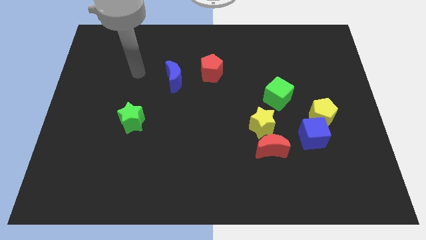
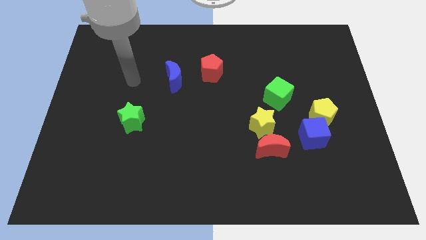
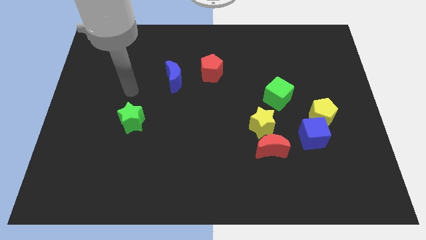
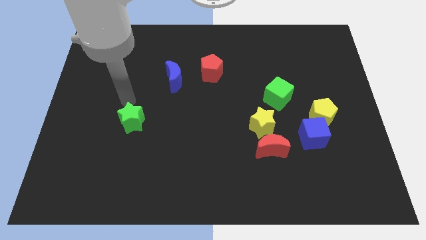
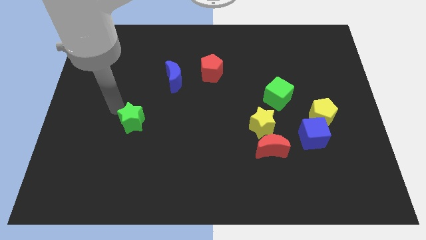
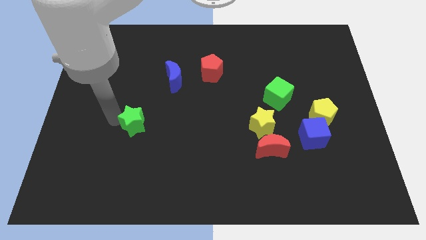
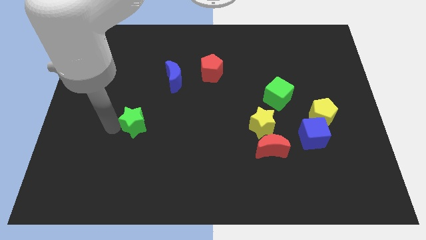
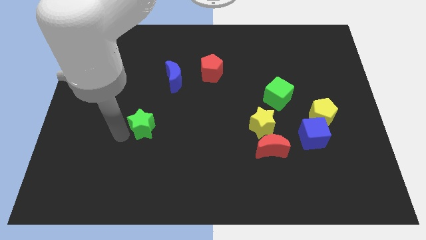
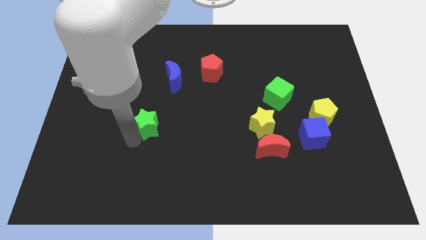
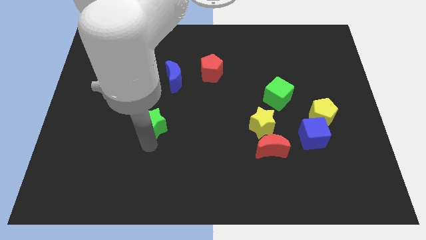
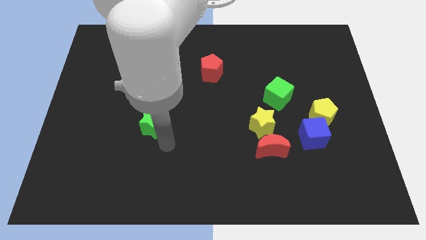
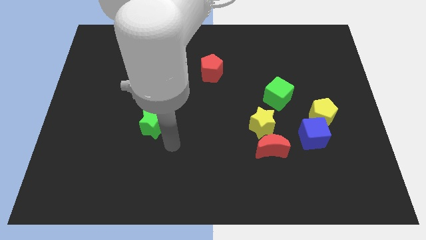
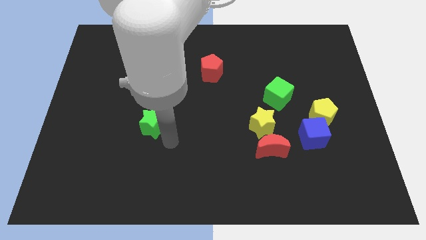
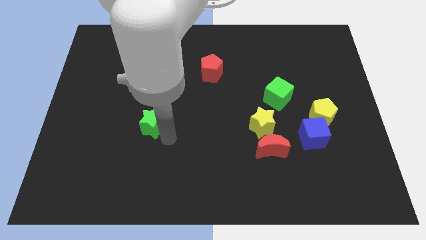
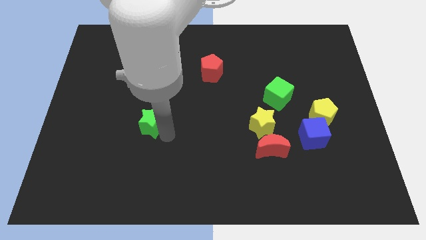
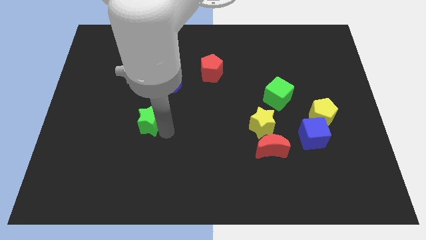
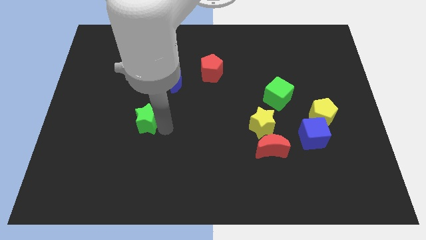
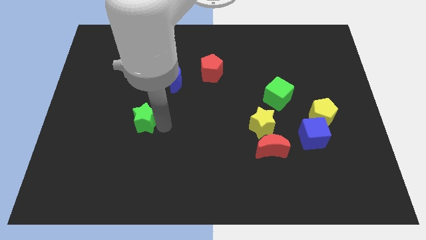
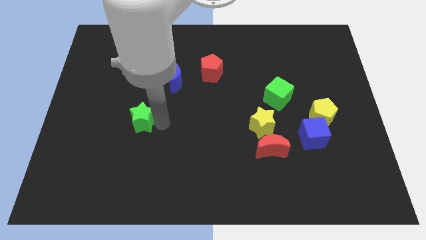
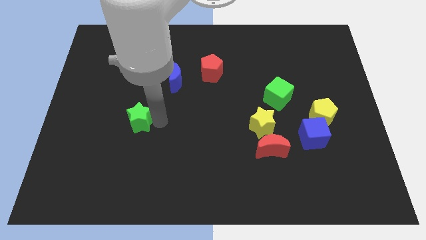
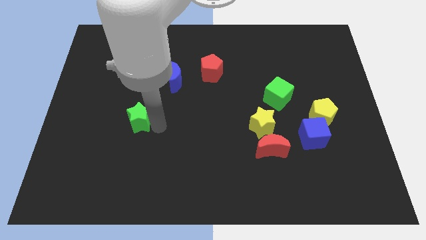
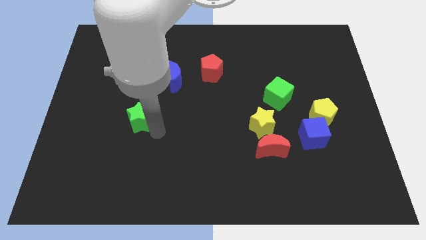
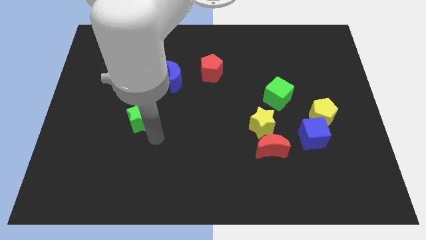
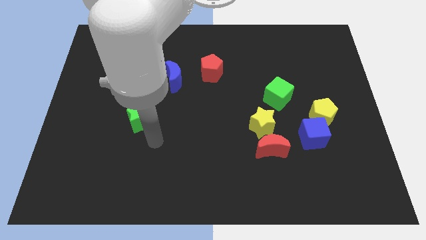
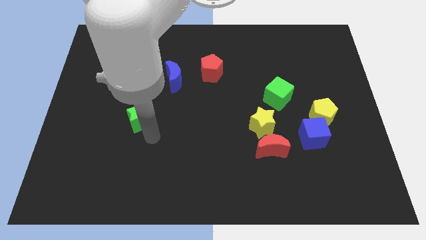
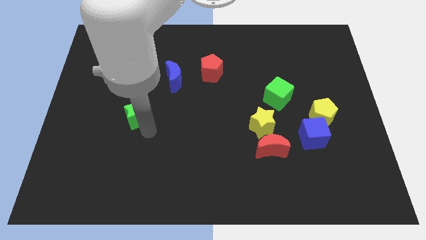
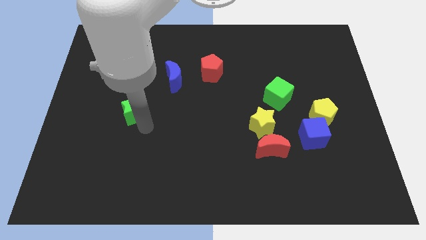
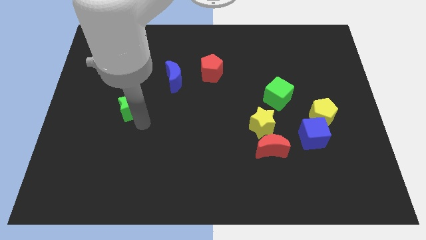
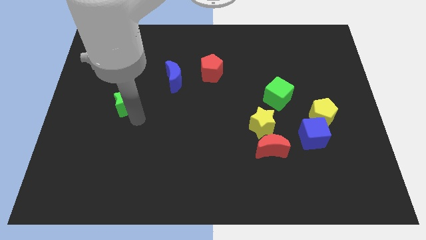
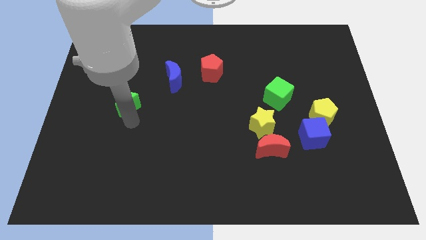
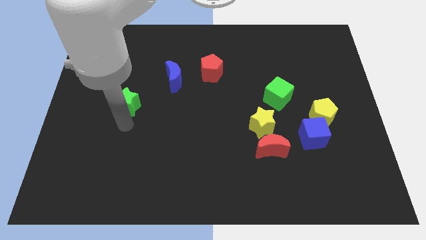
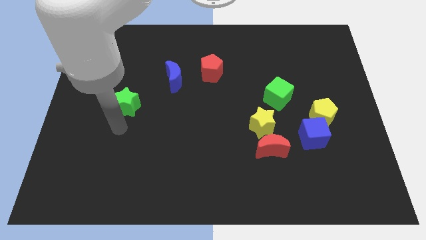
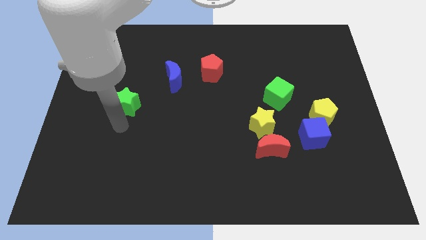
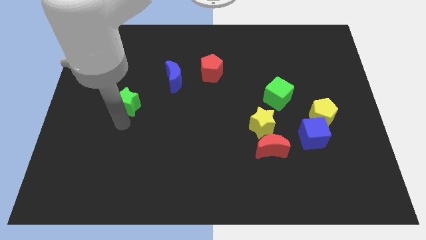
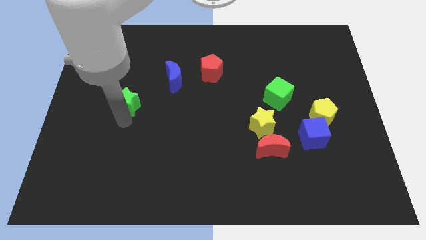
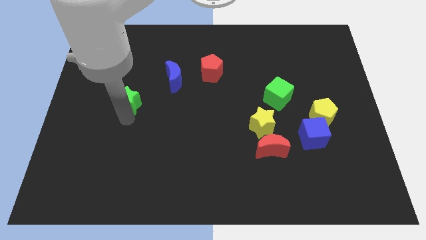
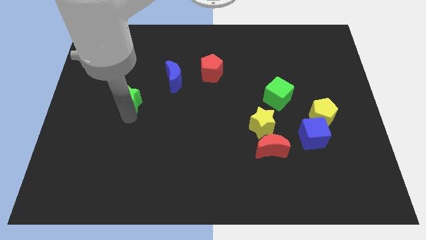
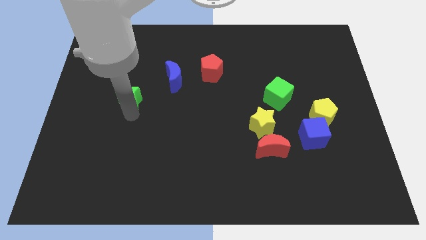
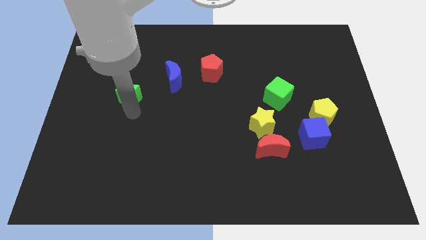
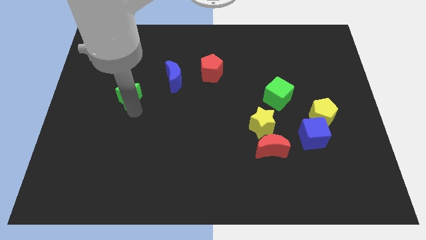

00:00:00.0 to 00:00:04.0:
move the green star a little bit up

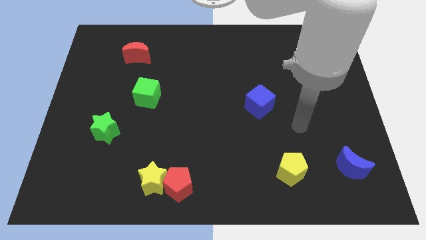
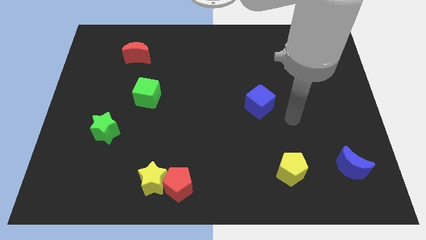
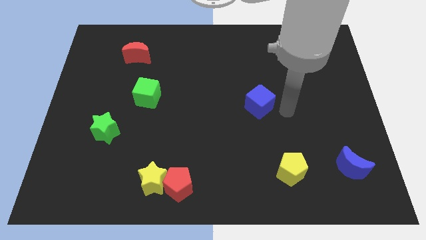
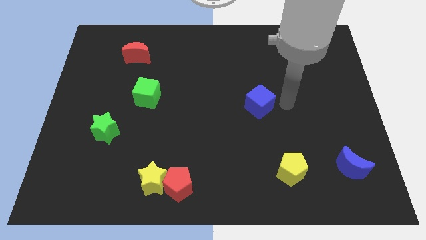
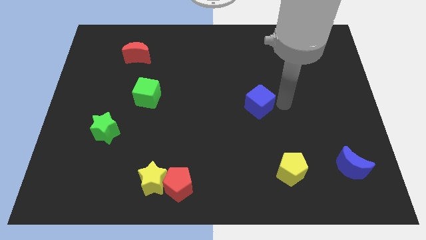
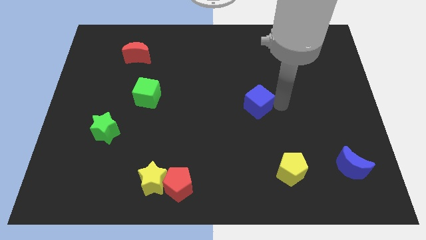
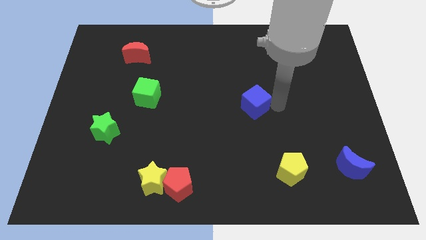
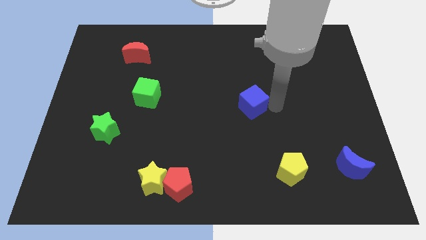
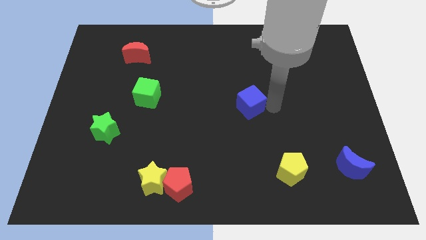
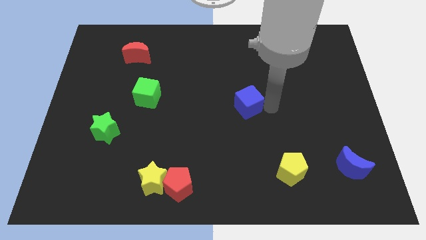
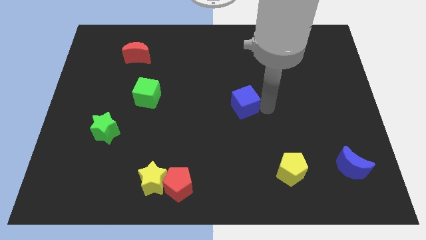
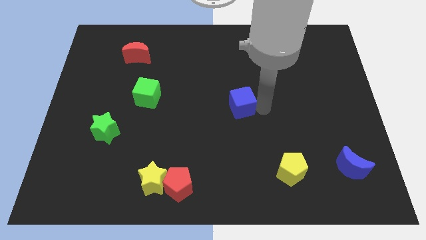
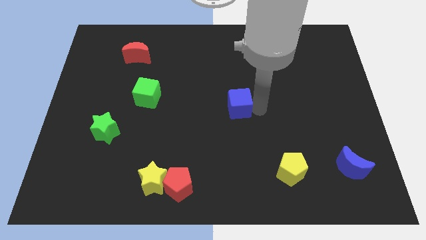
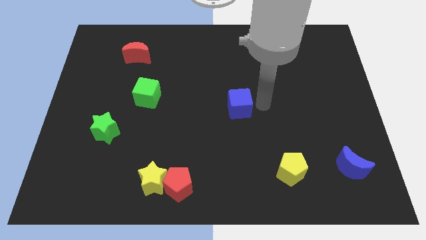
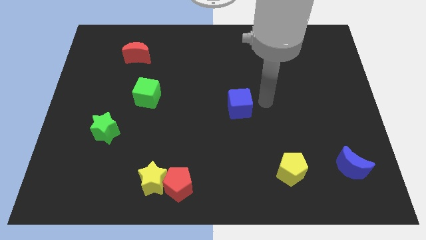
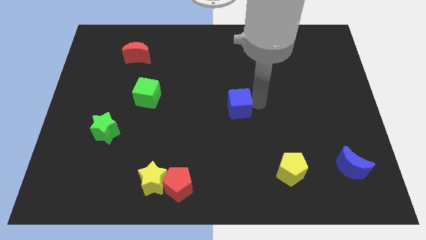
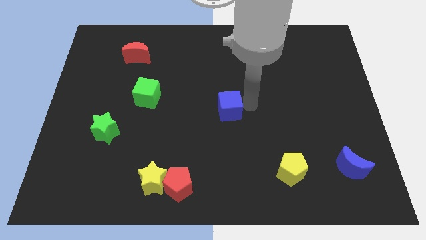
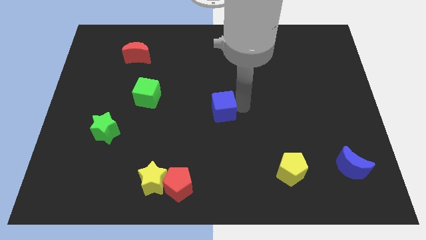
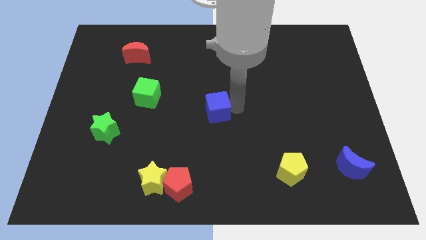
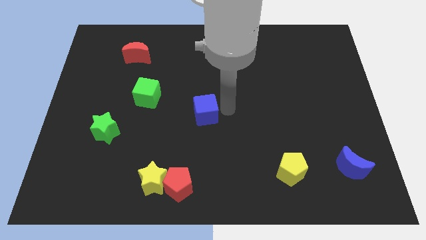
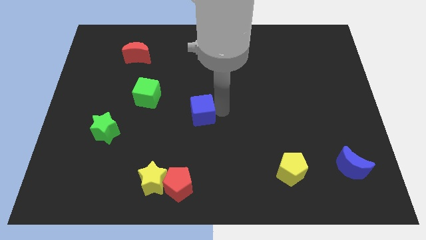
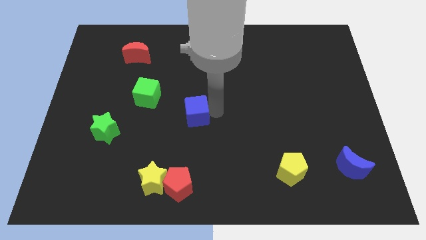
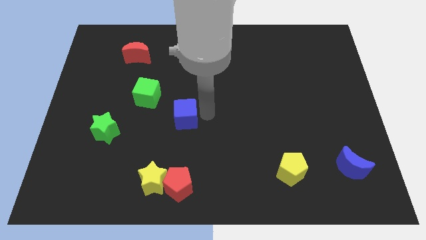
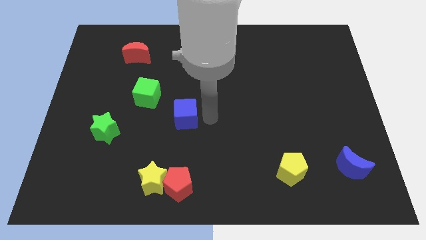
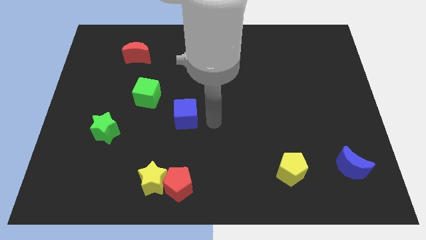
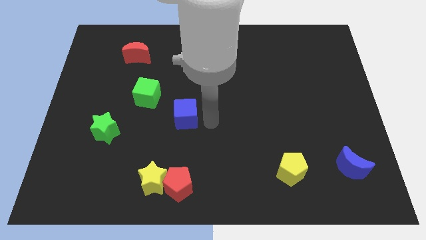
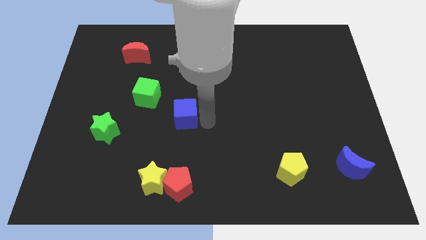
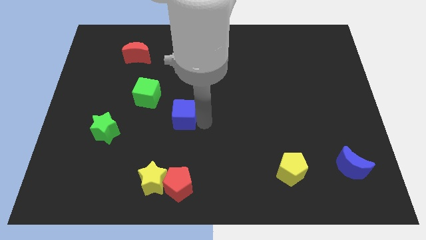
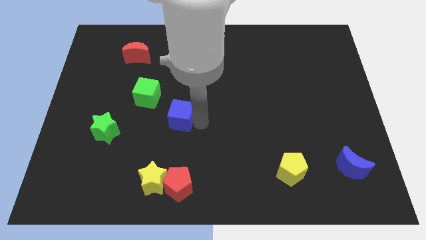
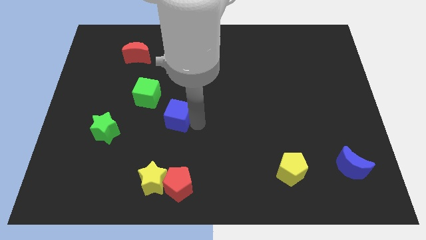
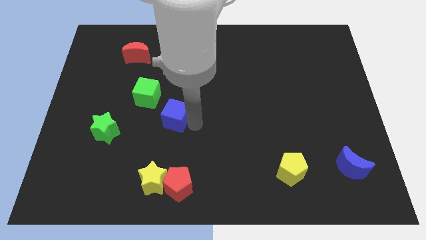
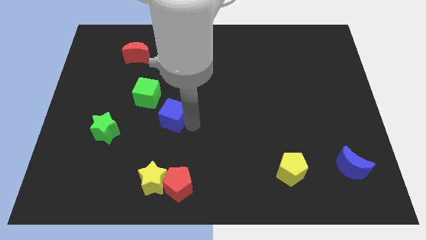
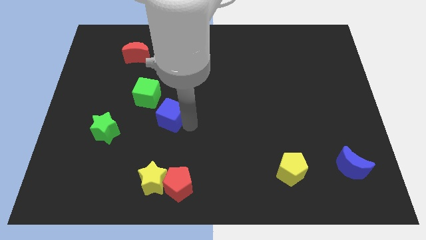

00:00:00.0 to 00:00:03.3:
slide the blue cube to the left

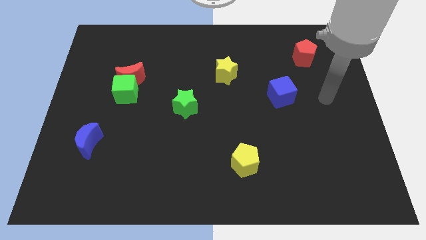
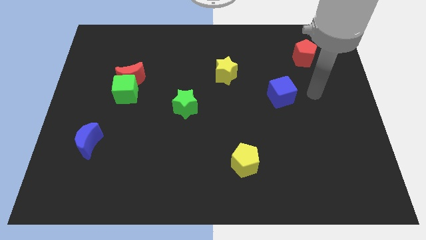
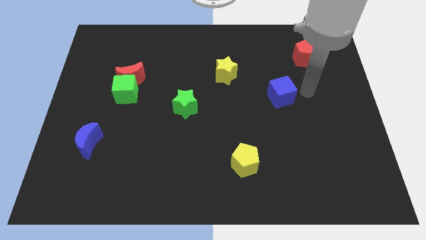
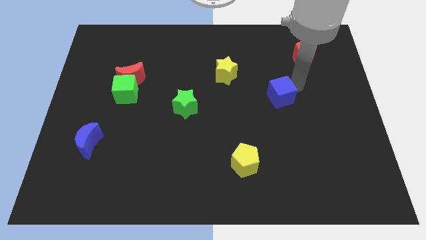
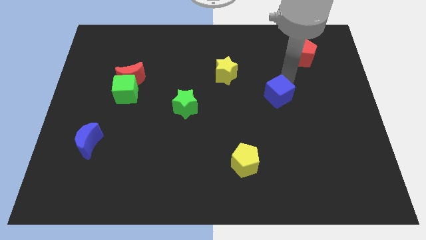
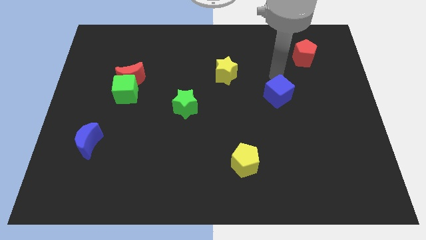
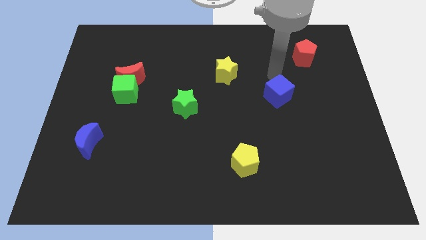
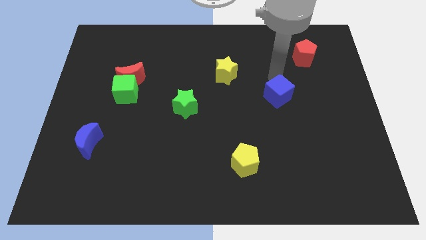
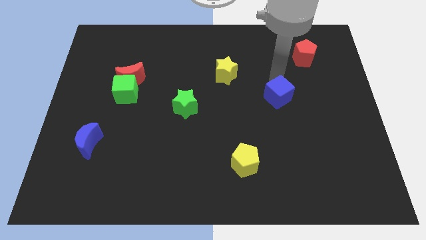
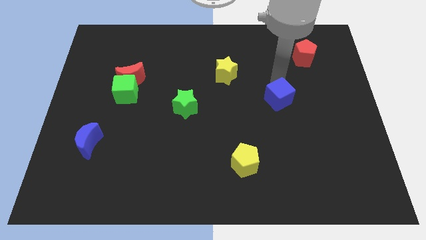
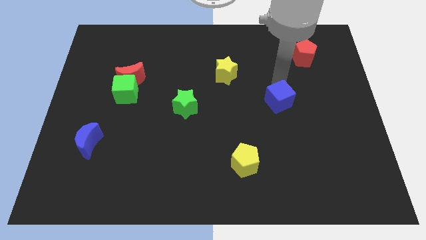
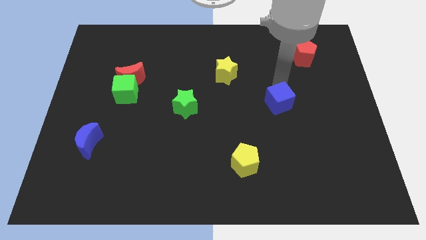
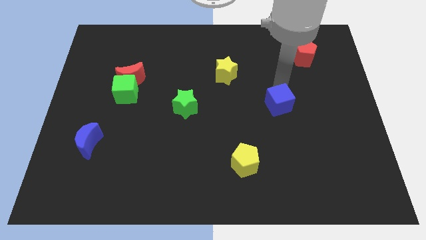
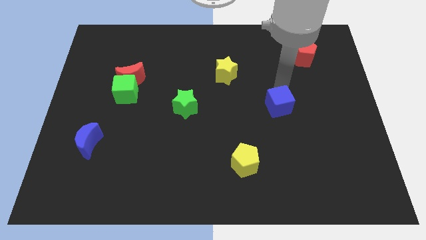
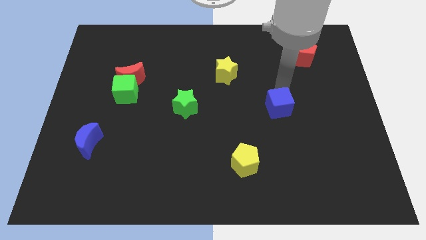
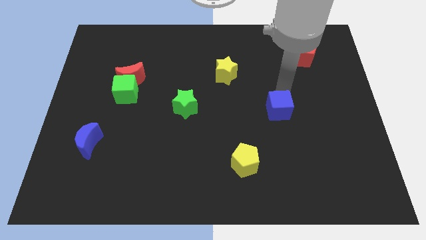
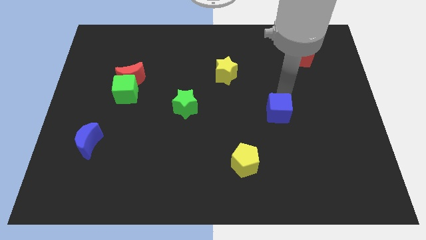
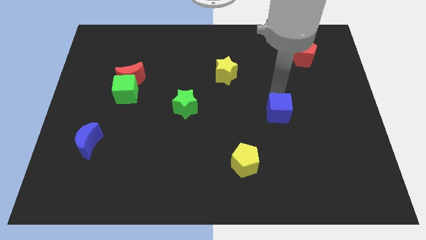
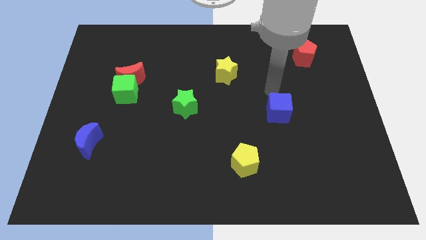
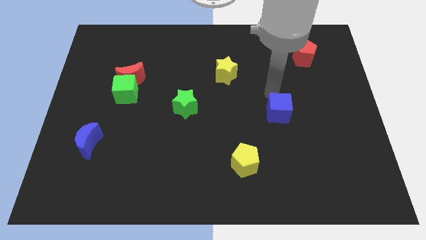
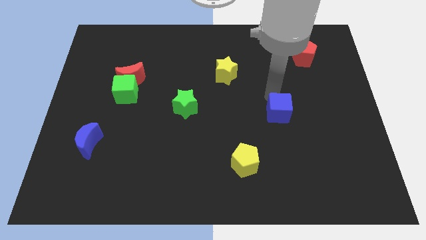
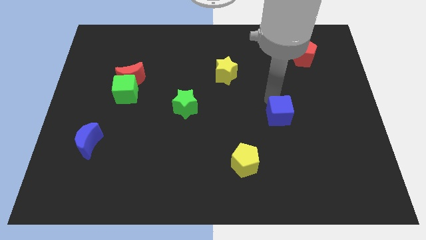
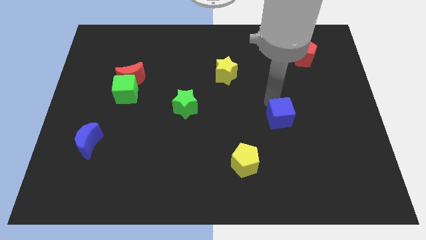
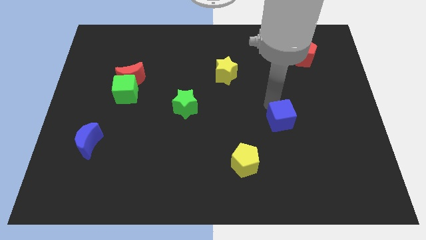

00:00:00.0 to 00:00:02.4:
slide the blue cube down somewhat
